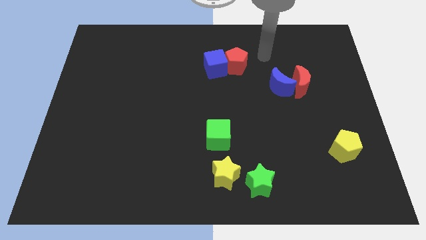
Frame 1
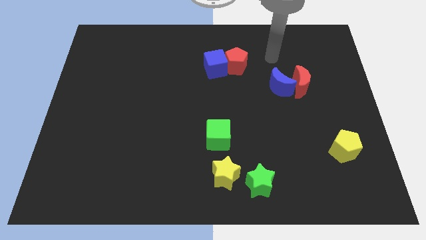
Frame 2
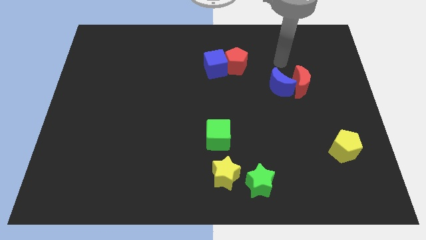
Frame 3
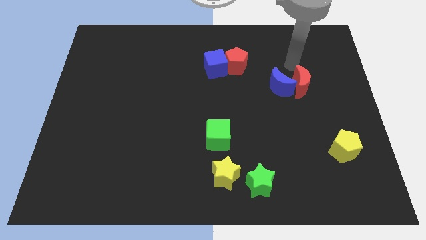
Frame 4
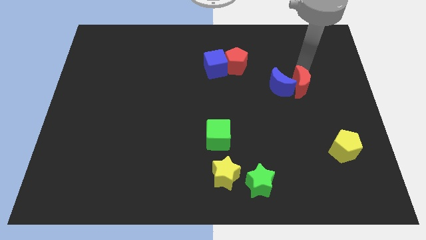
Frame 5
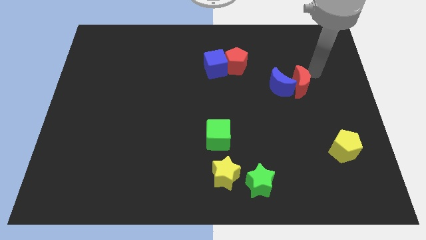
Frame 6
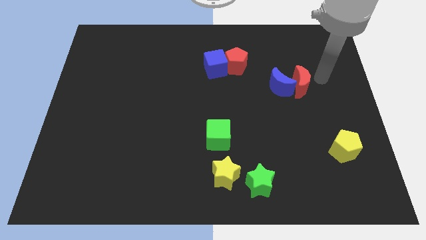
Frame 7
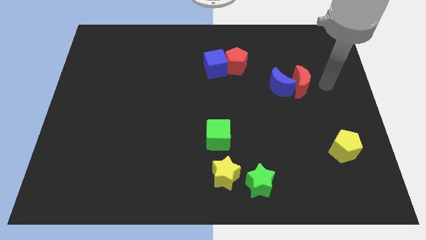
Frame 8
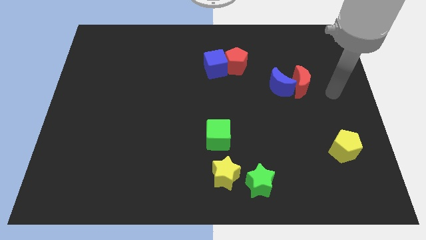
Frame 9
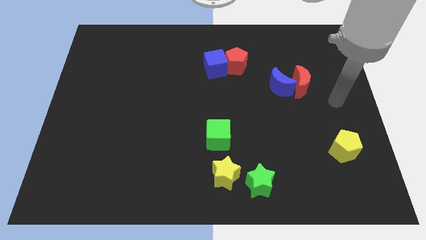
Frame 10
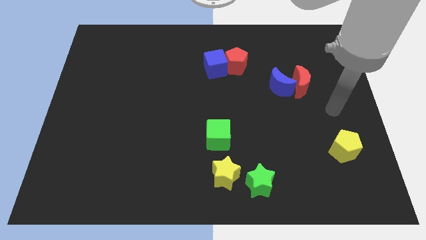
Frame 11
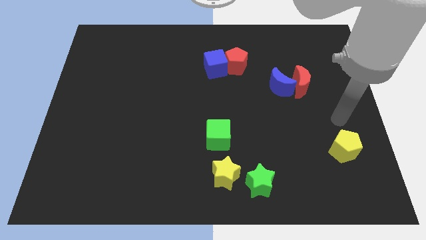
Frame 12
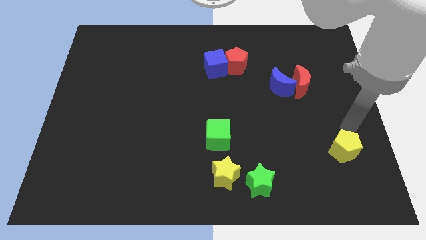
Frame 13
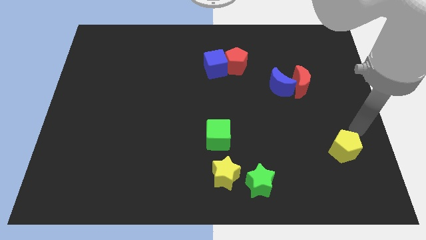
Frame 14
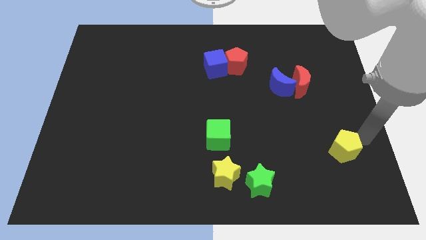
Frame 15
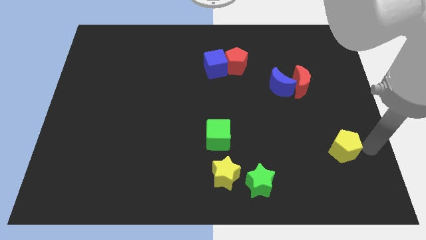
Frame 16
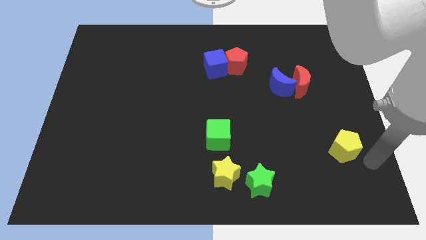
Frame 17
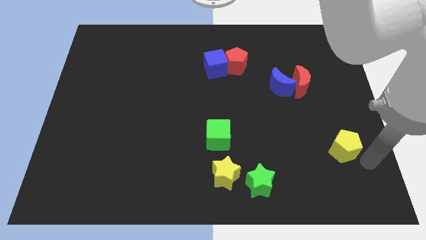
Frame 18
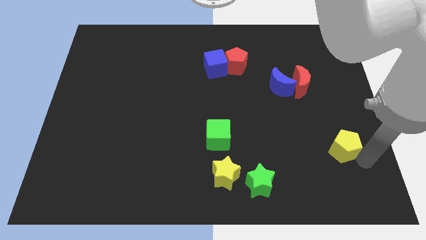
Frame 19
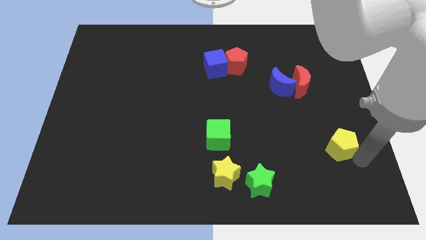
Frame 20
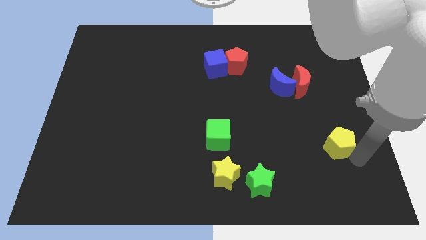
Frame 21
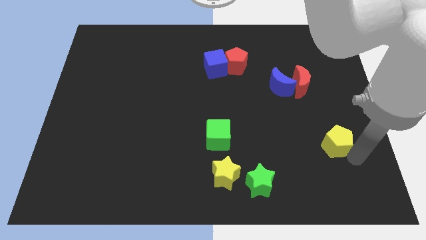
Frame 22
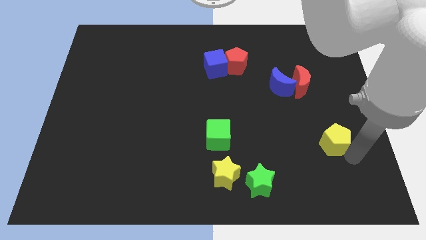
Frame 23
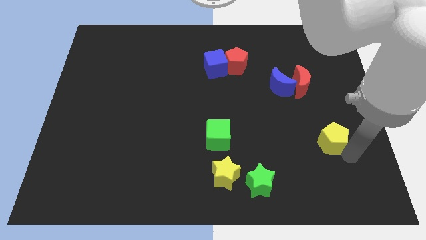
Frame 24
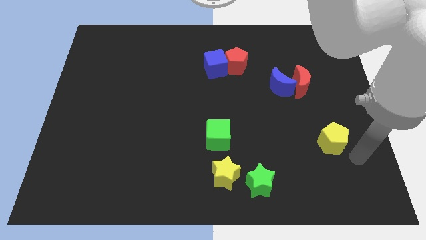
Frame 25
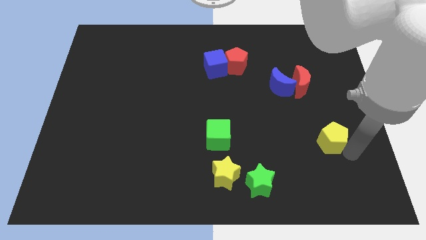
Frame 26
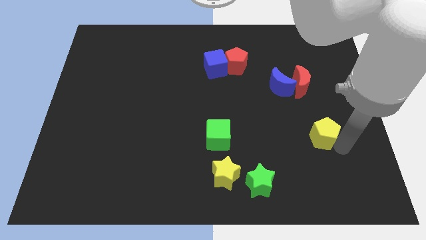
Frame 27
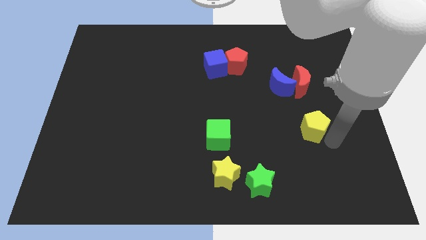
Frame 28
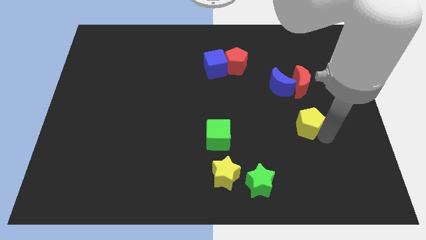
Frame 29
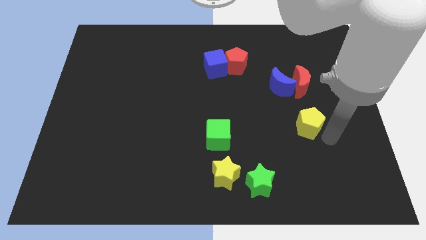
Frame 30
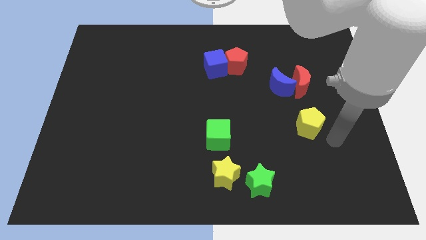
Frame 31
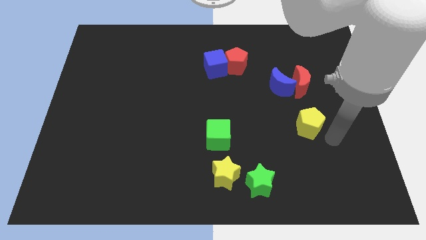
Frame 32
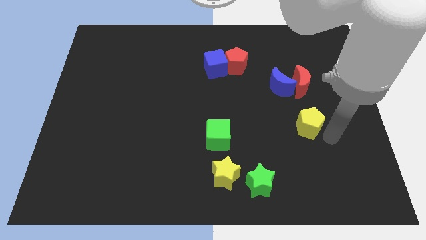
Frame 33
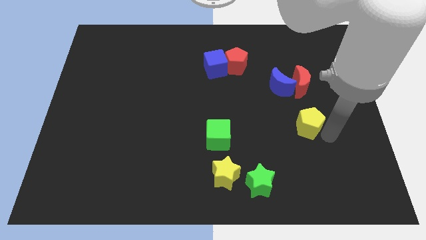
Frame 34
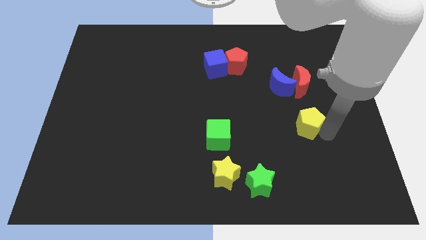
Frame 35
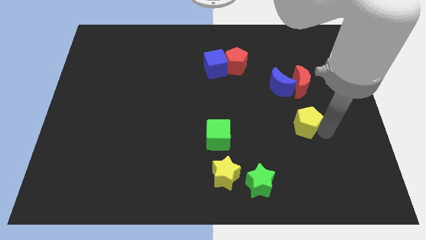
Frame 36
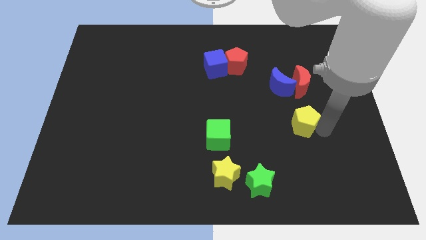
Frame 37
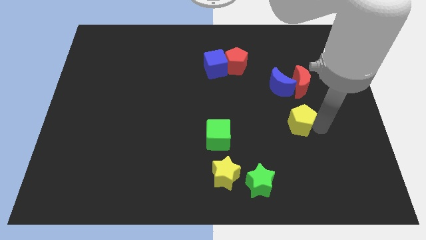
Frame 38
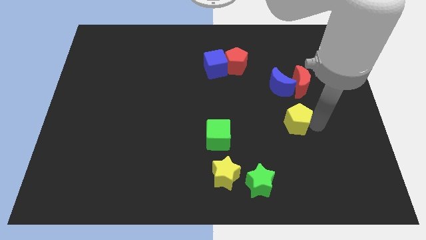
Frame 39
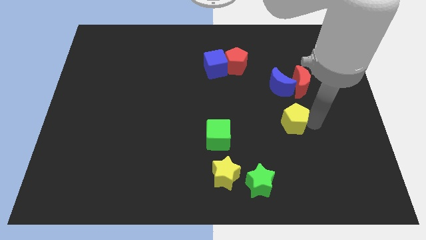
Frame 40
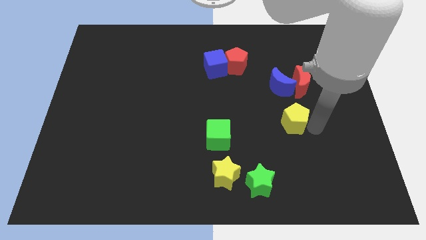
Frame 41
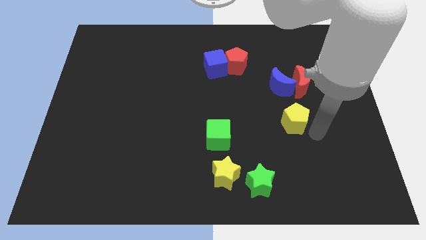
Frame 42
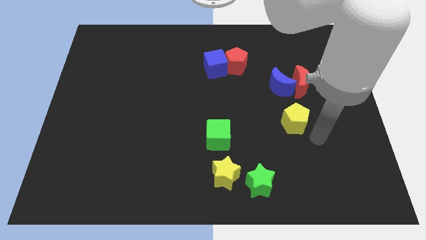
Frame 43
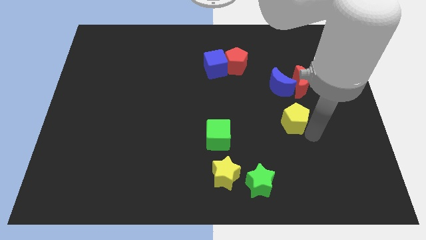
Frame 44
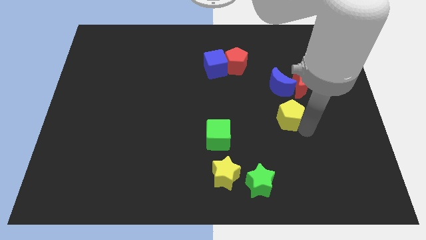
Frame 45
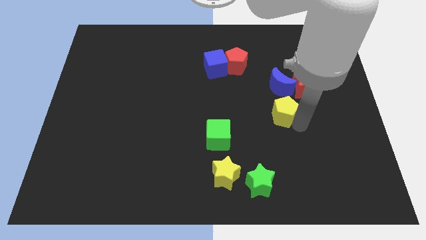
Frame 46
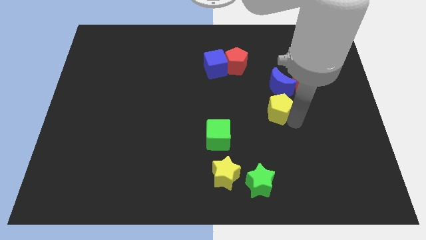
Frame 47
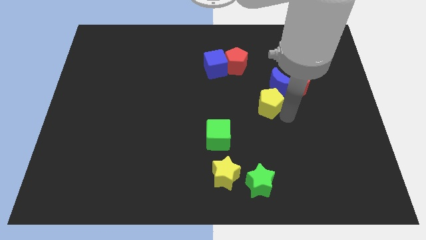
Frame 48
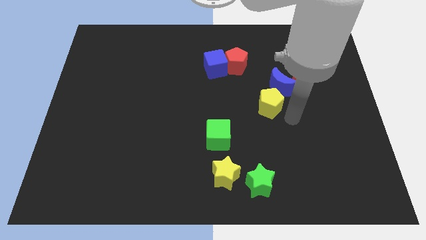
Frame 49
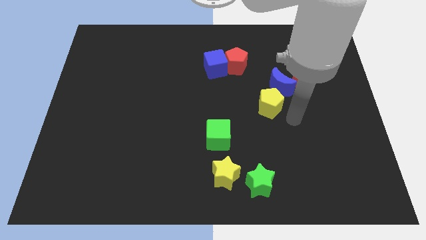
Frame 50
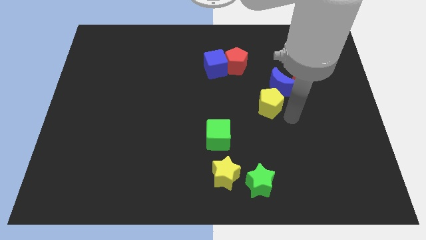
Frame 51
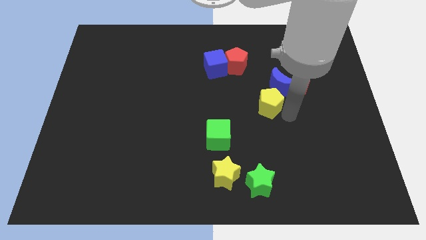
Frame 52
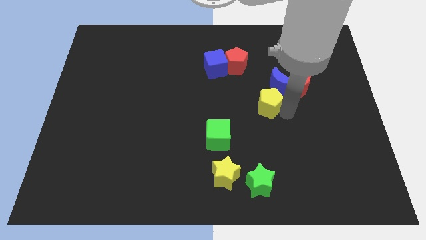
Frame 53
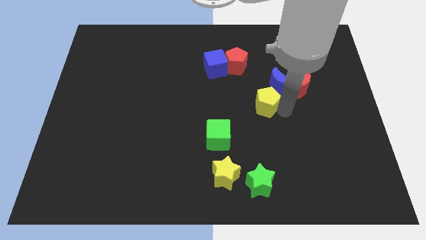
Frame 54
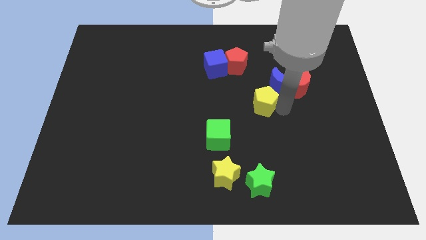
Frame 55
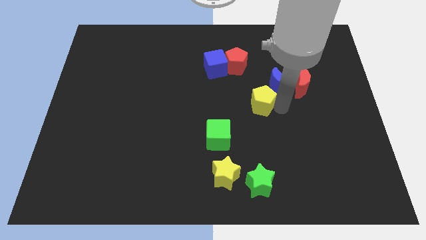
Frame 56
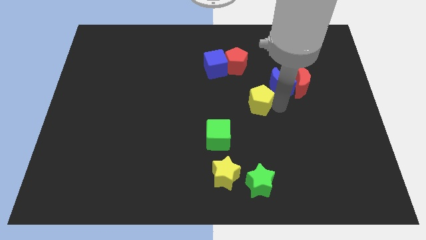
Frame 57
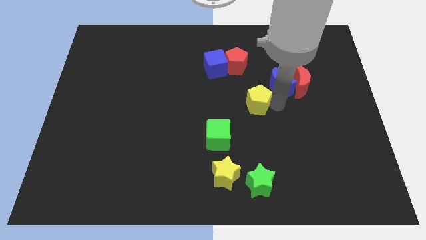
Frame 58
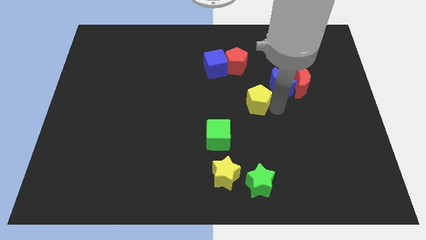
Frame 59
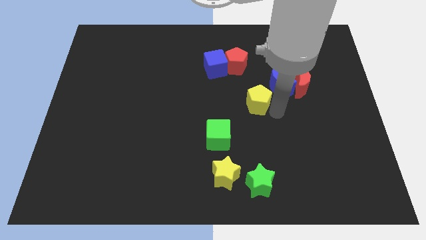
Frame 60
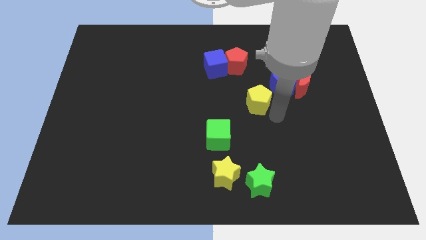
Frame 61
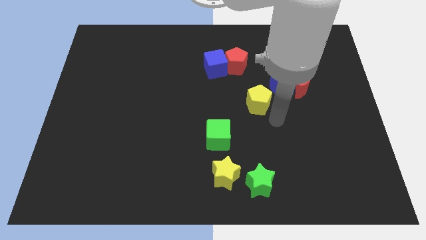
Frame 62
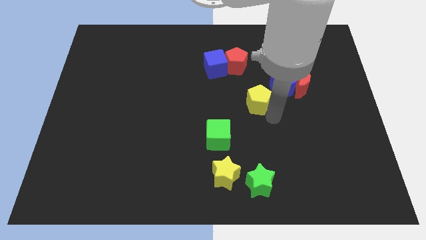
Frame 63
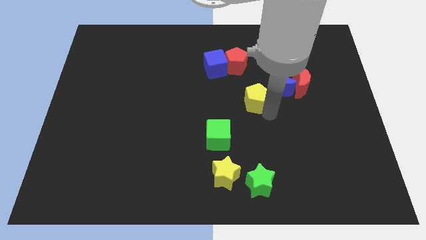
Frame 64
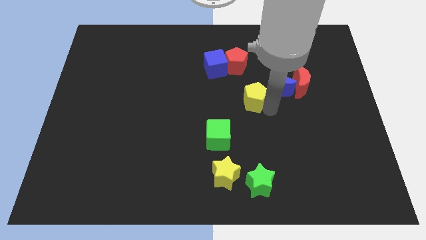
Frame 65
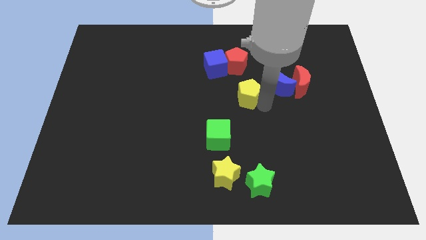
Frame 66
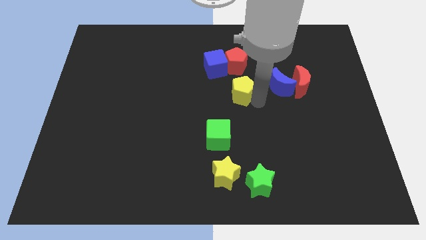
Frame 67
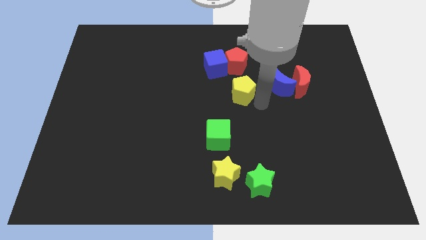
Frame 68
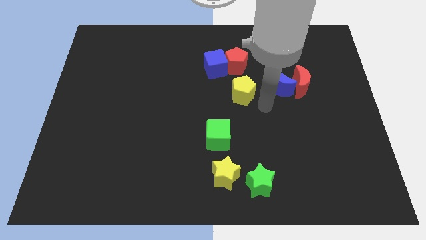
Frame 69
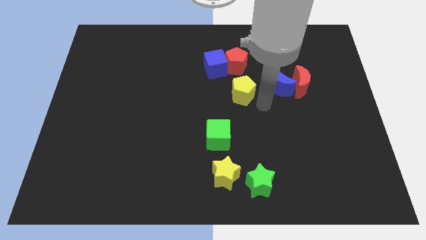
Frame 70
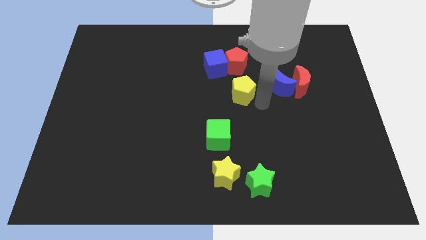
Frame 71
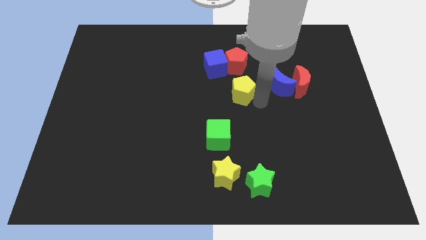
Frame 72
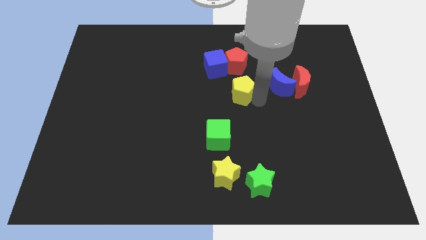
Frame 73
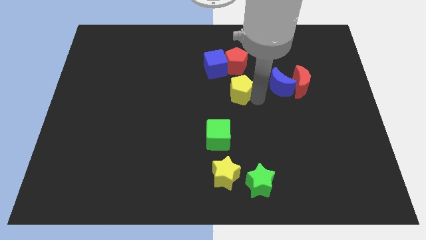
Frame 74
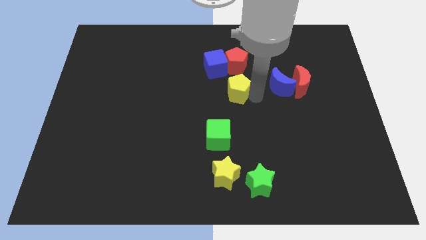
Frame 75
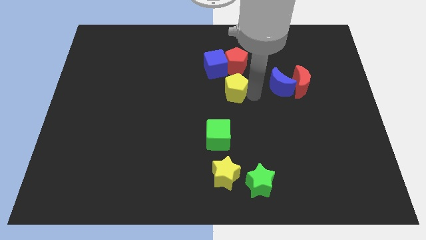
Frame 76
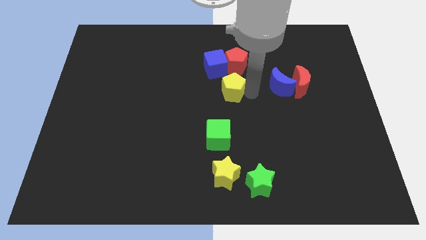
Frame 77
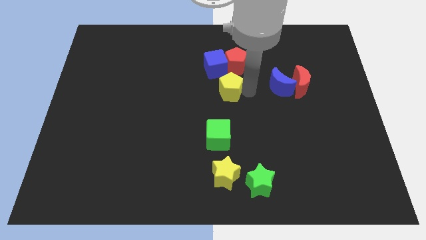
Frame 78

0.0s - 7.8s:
slide the yellow pentagon to the bottom left of the red pentagon
